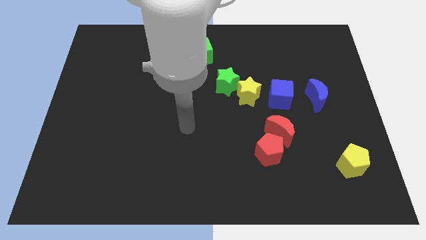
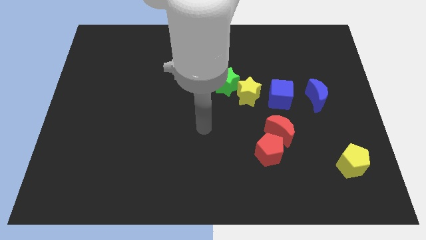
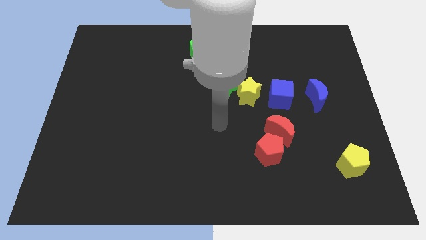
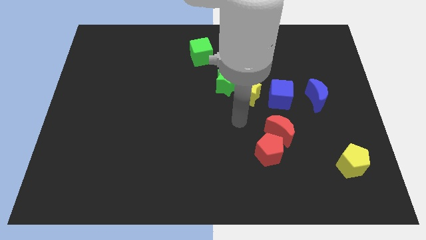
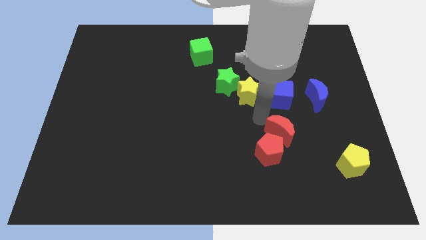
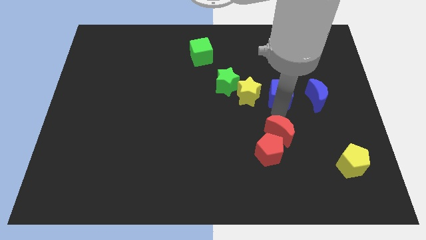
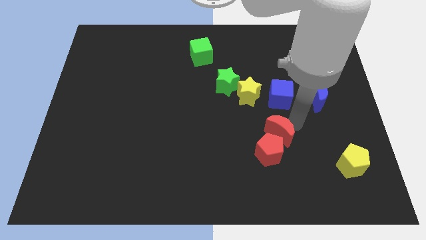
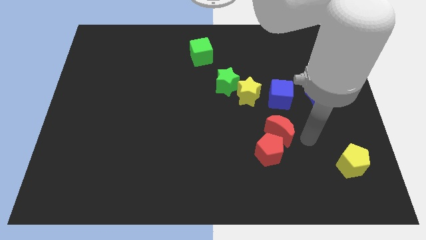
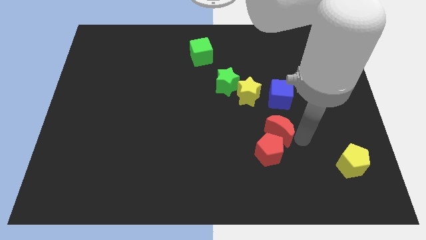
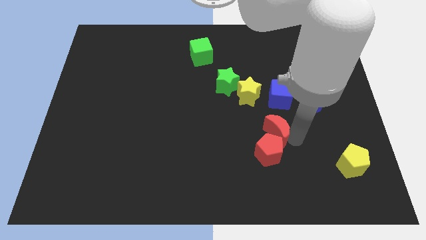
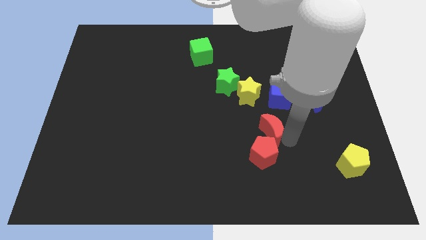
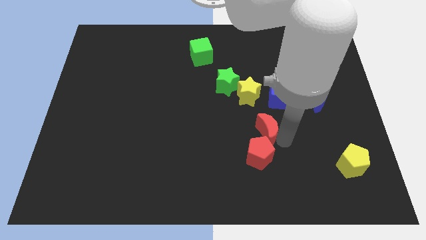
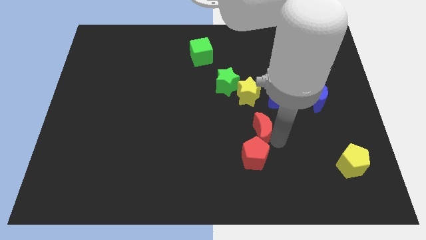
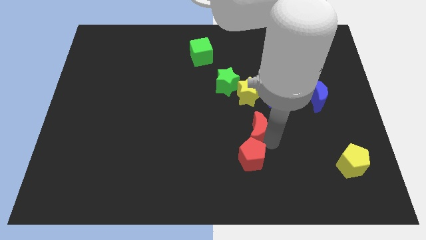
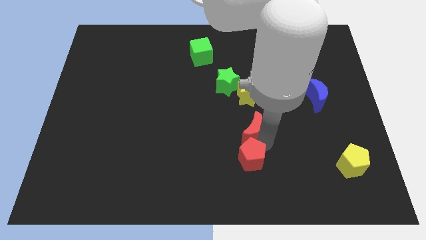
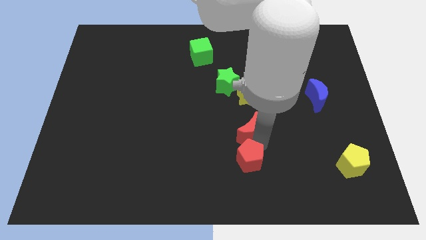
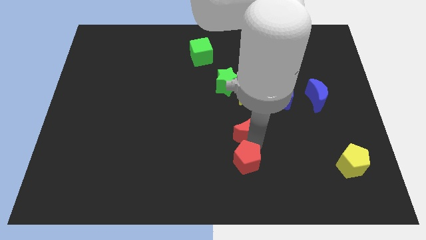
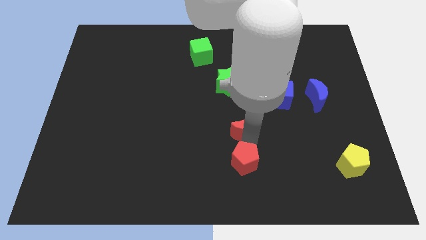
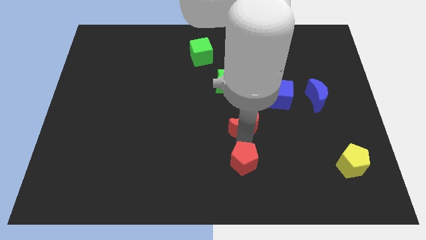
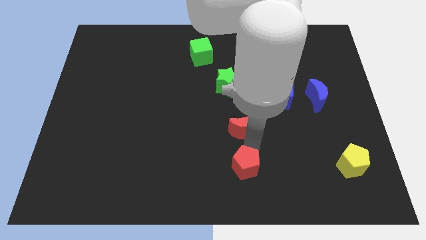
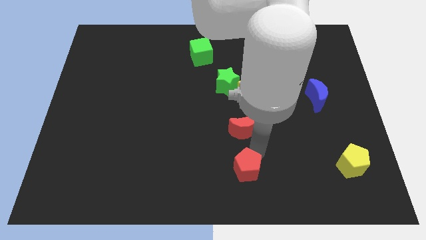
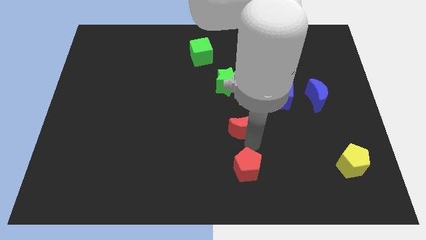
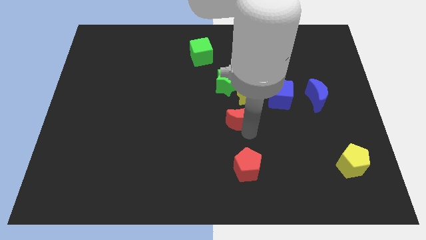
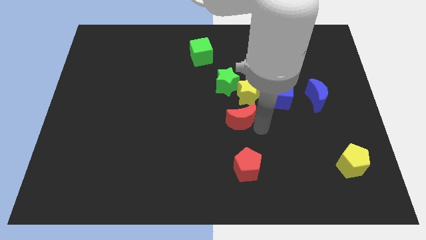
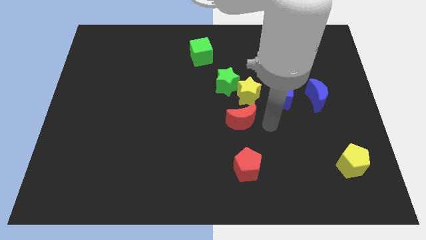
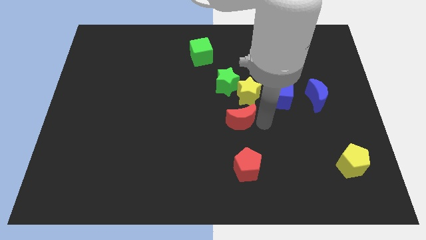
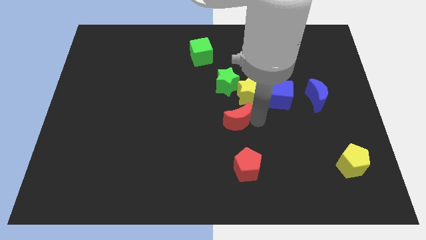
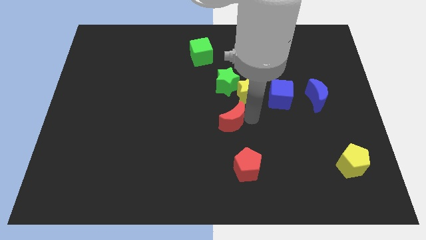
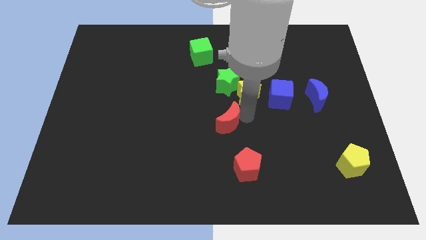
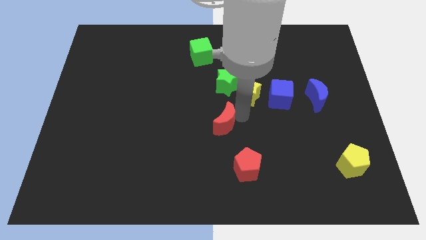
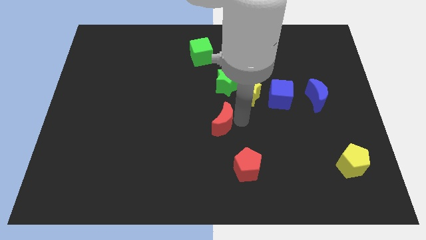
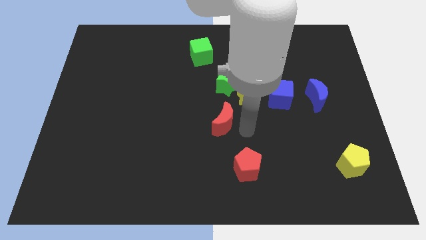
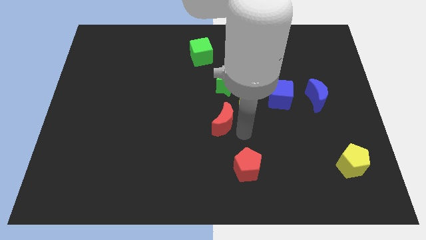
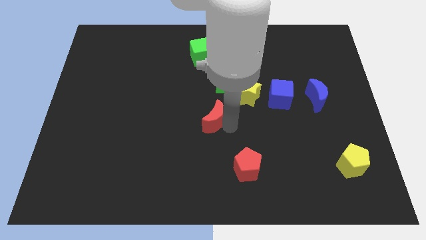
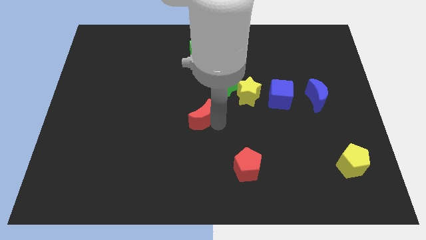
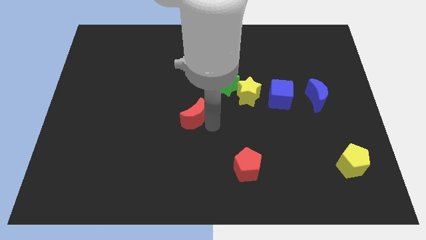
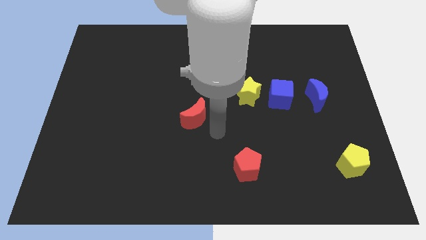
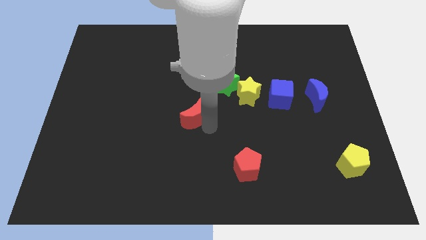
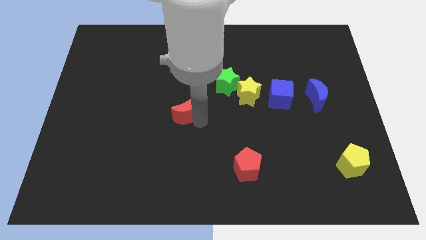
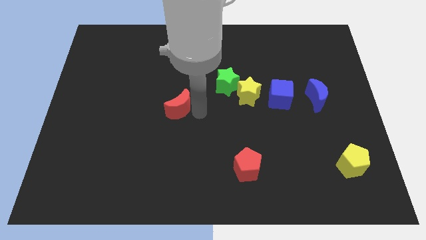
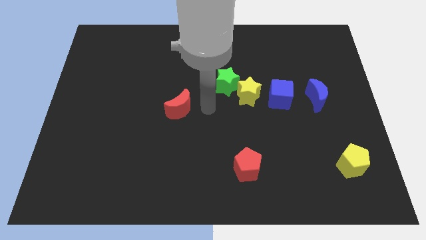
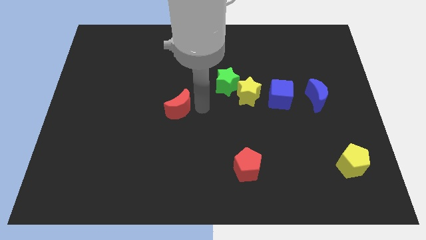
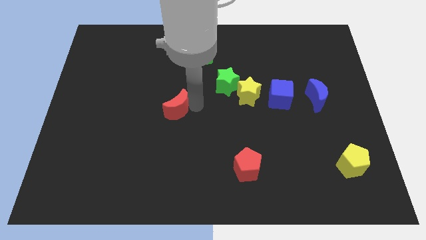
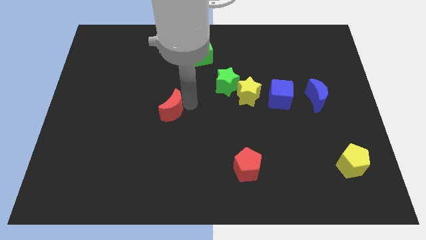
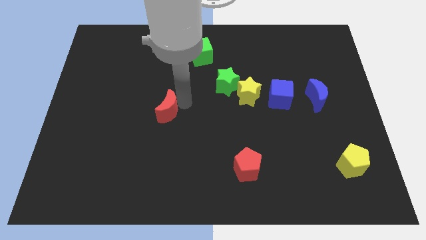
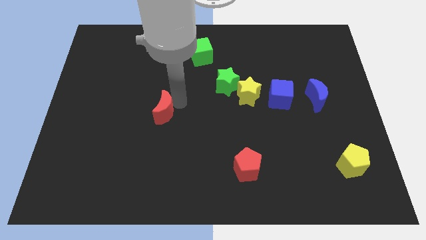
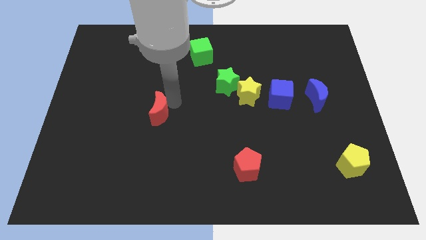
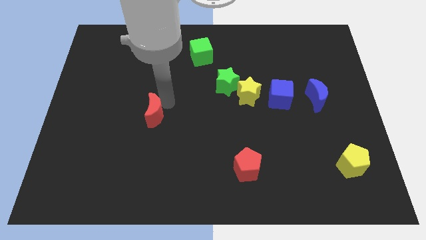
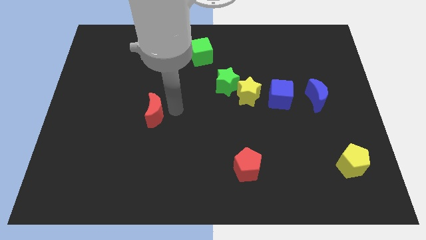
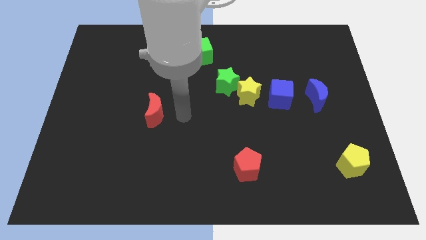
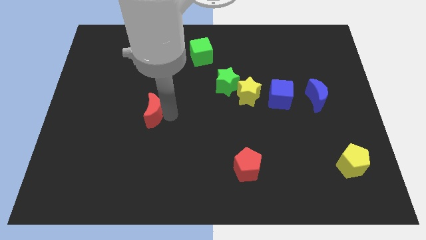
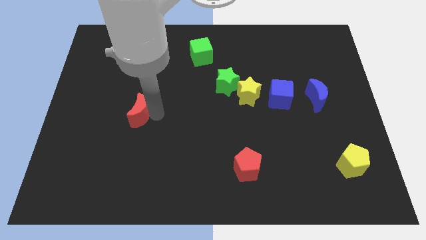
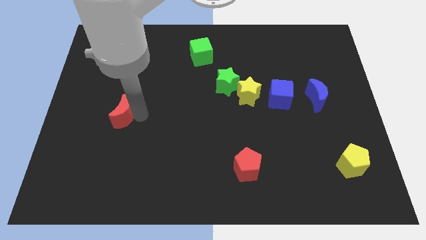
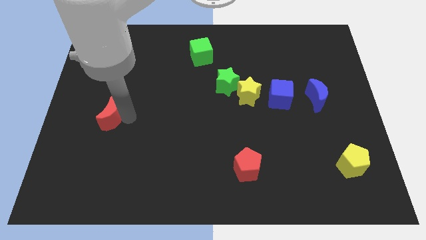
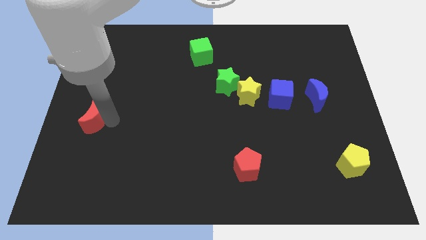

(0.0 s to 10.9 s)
move the red moon to the left side

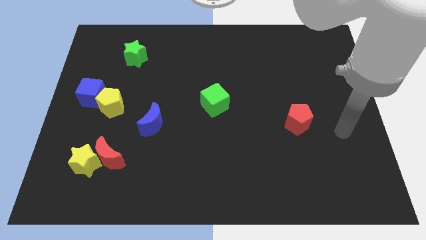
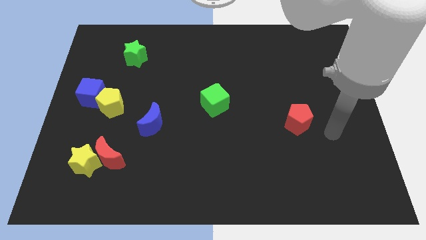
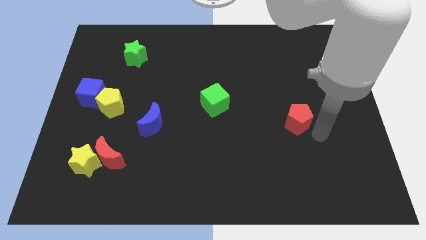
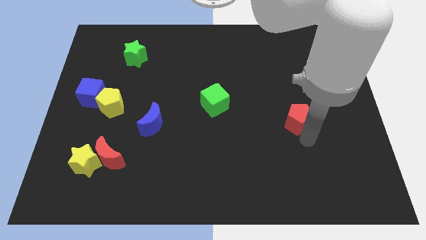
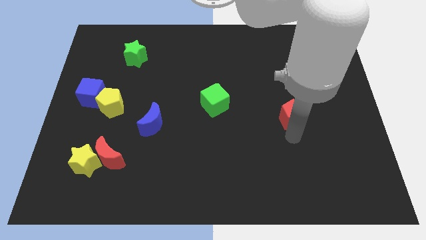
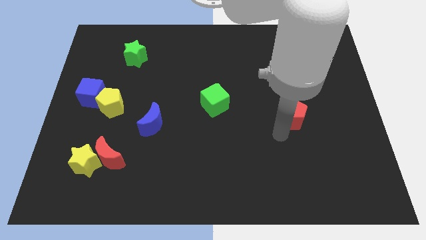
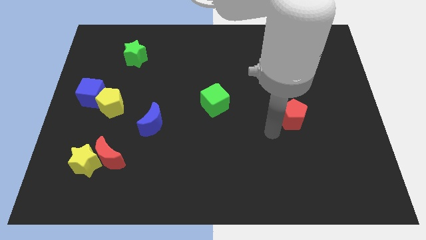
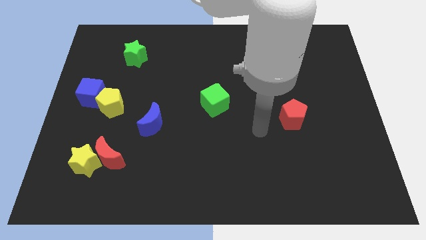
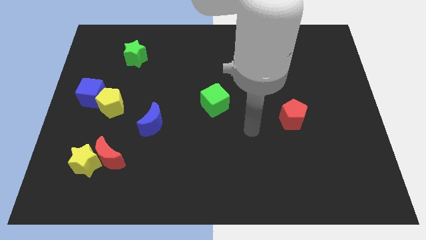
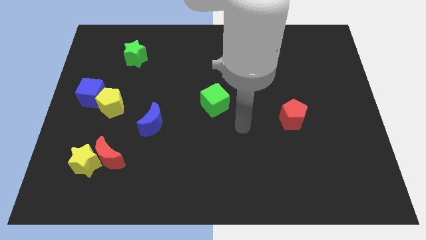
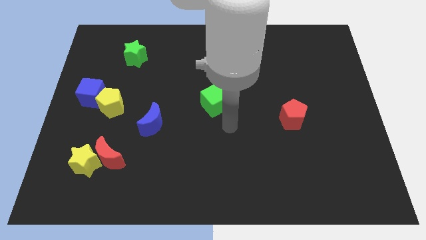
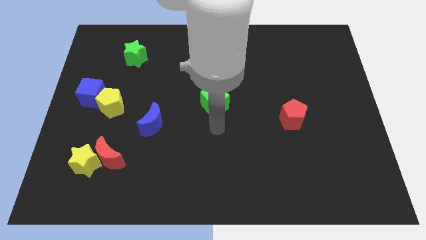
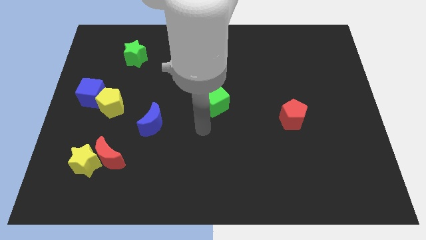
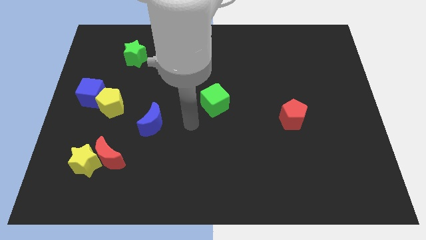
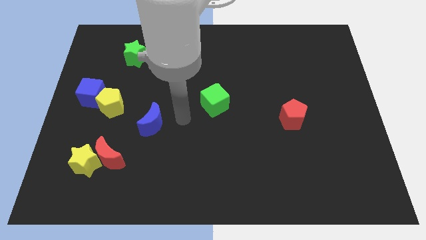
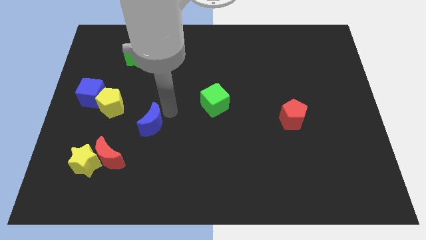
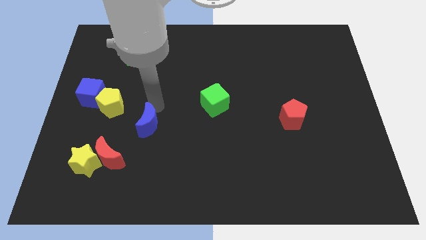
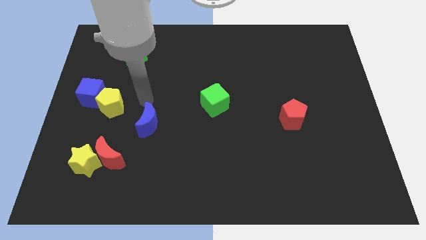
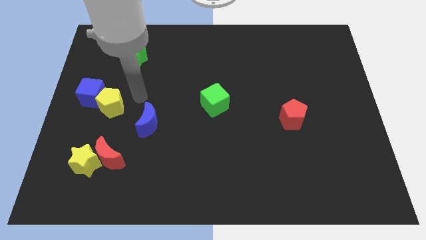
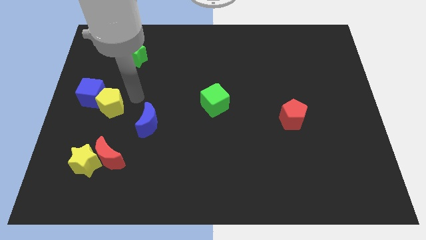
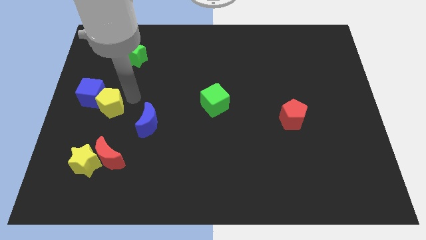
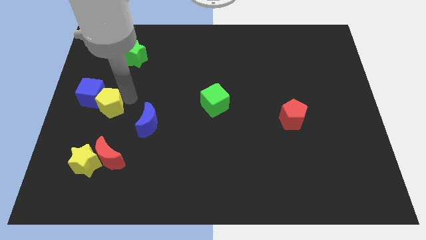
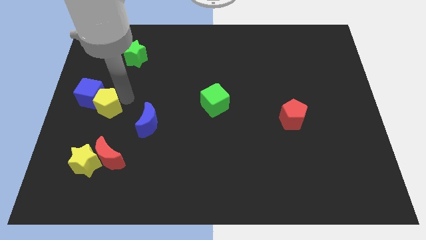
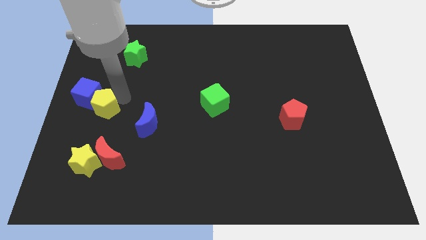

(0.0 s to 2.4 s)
slide the yellow pentagon to the left side of the board

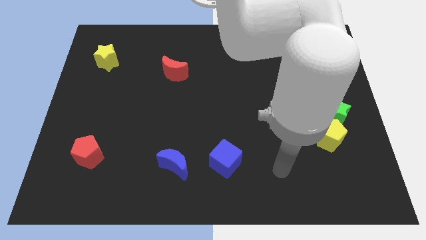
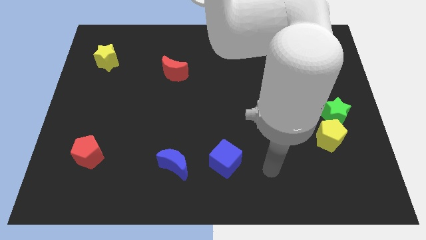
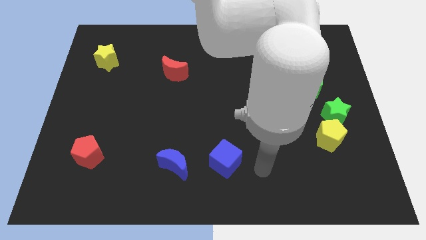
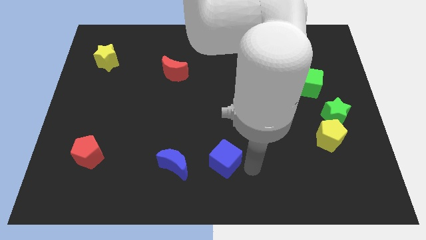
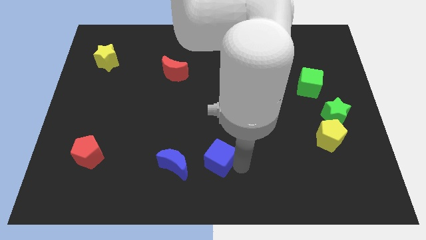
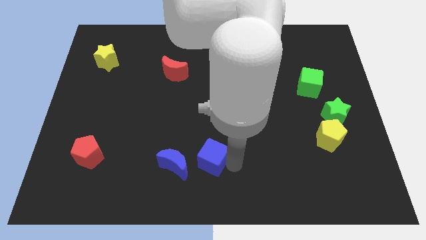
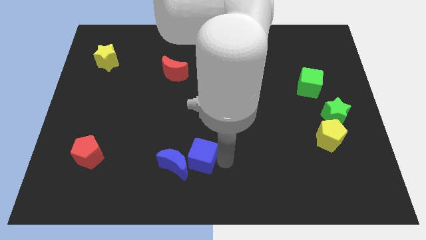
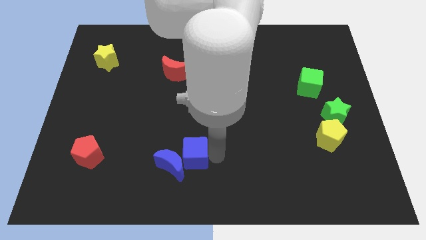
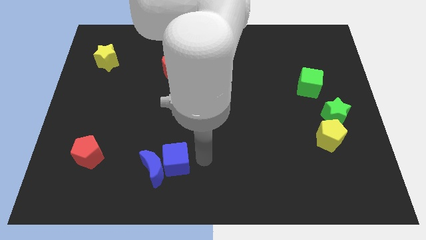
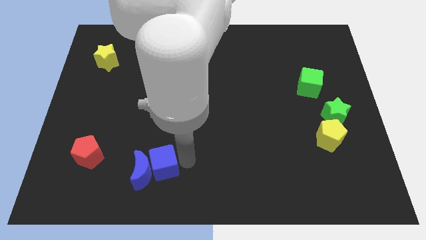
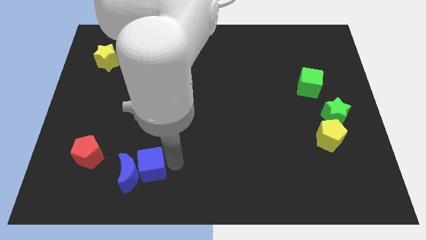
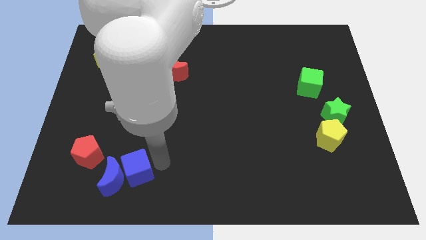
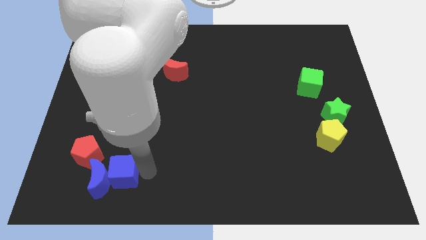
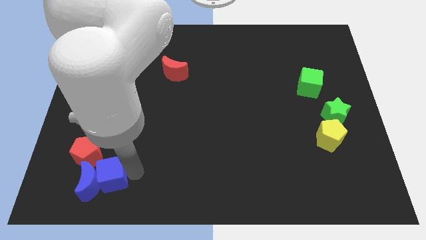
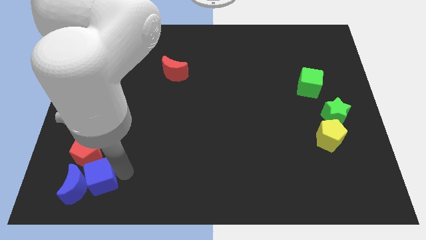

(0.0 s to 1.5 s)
put the blue moon to the bottom left of the board
